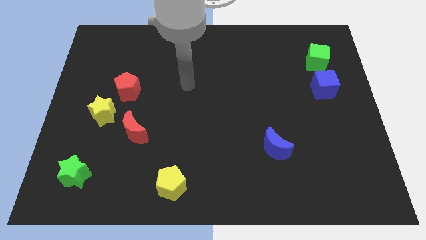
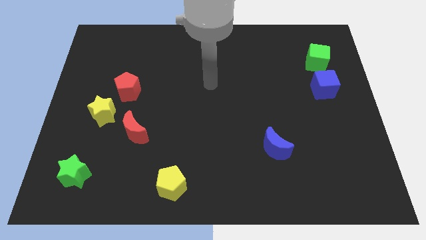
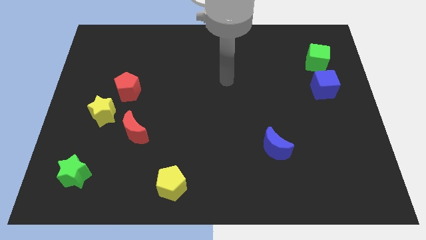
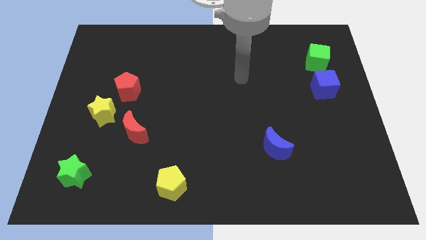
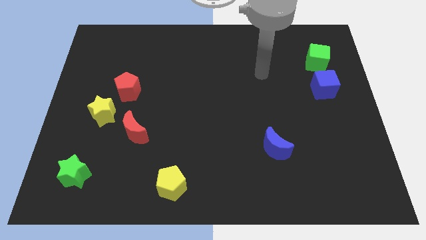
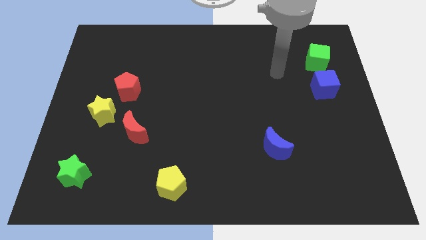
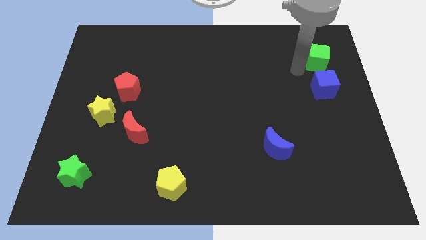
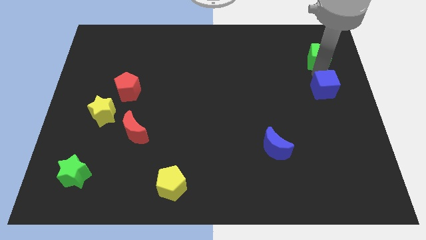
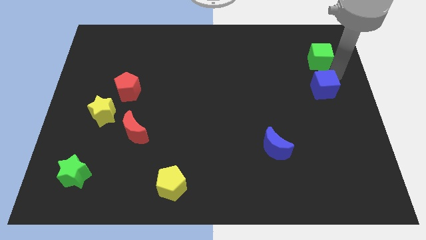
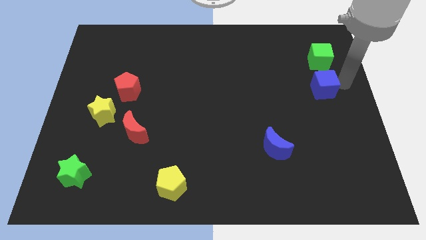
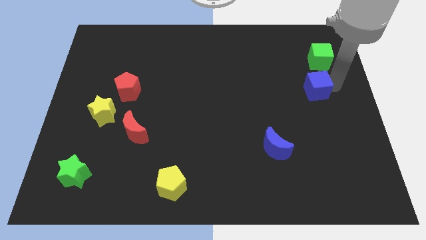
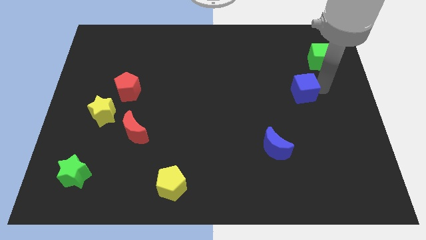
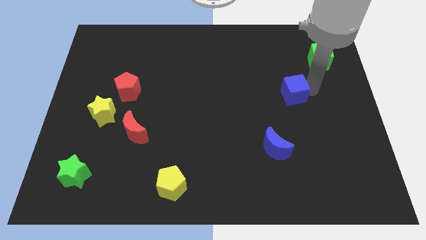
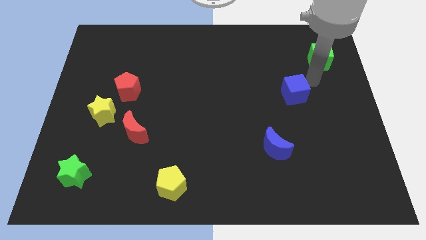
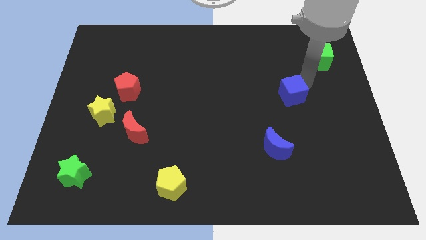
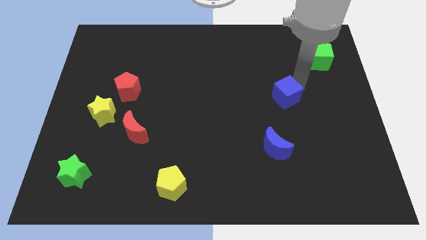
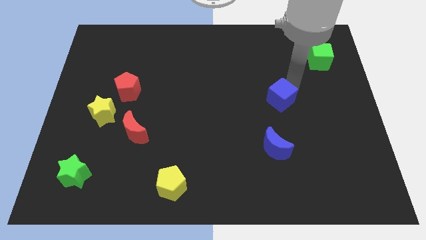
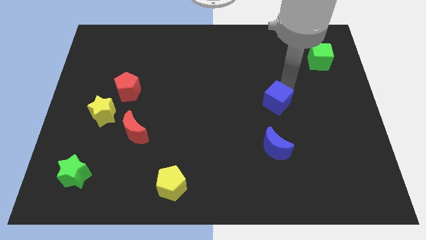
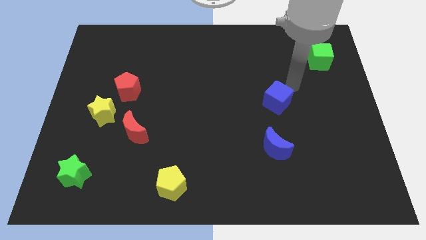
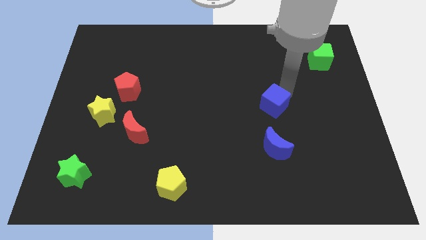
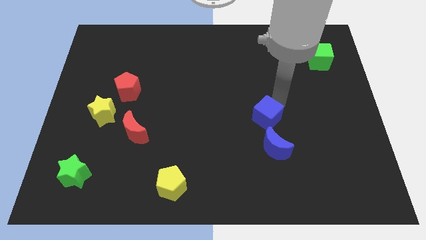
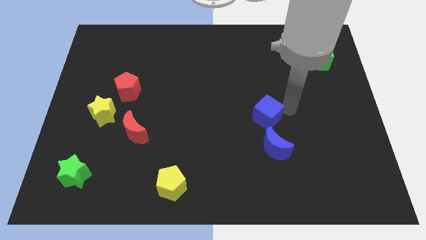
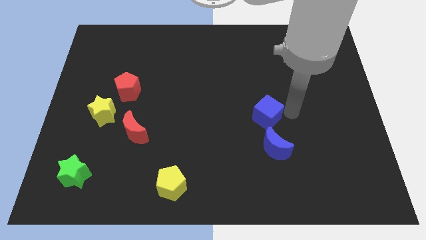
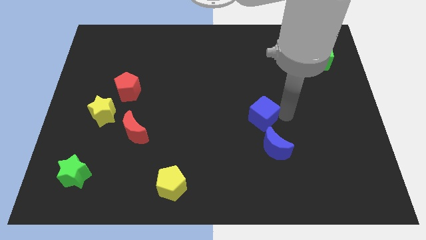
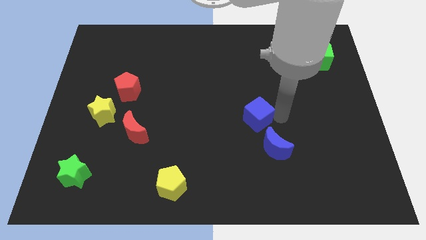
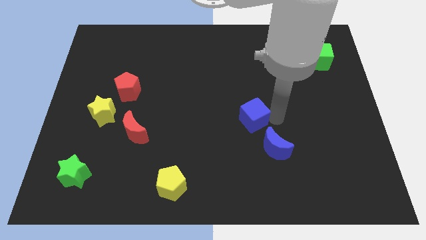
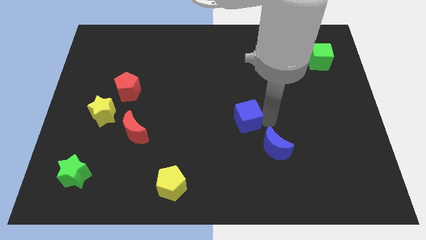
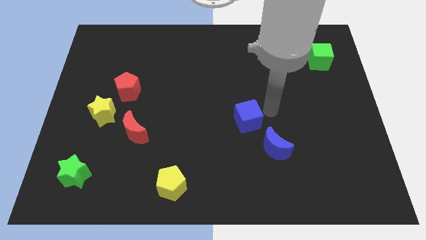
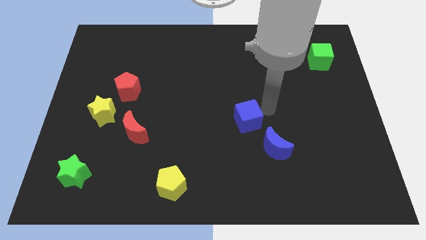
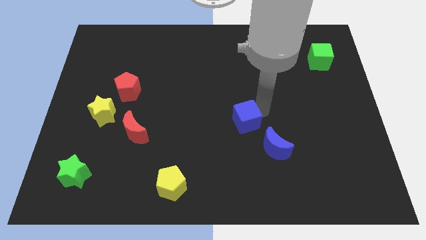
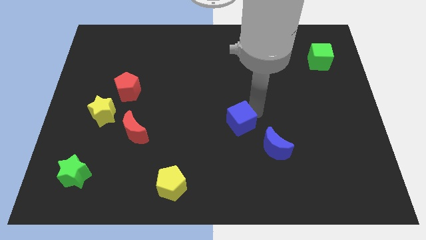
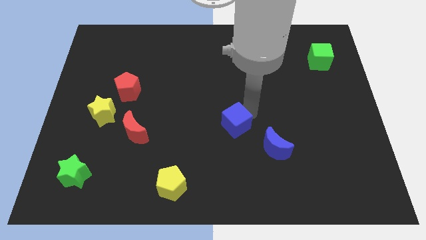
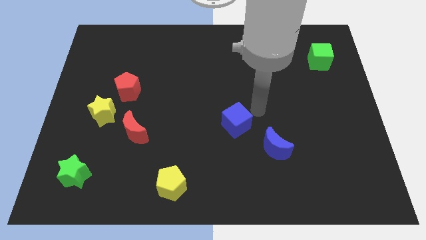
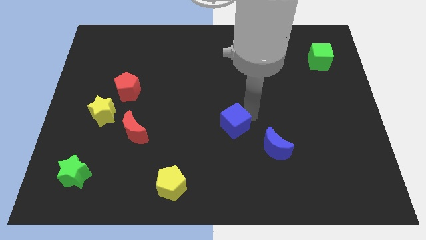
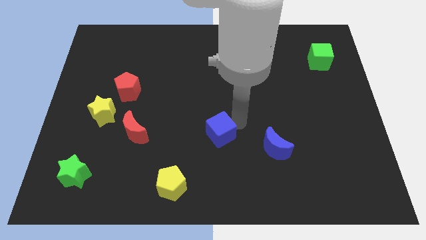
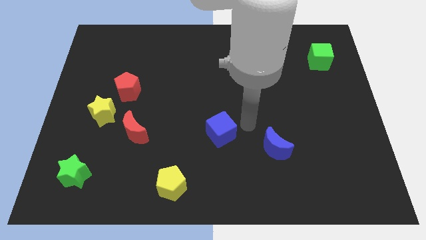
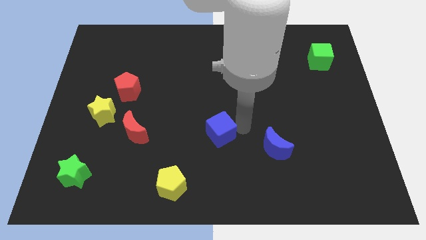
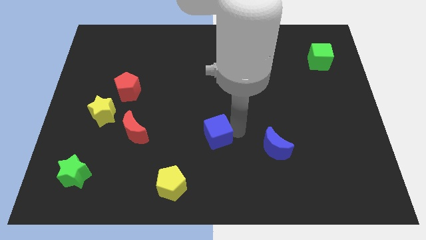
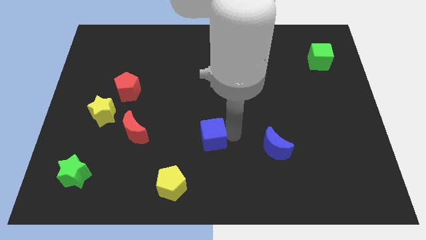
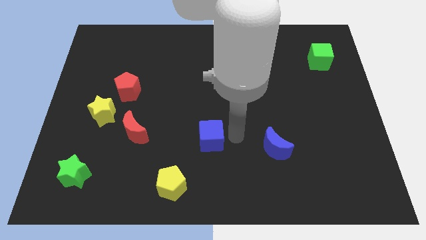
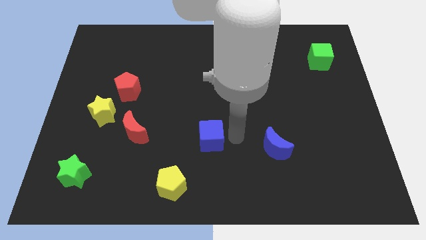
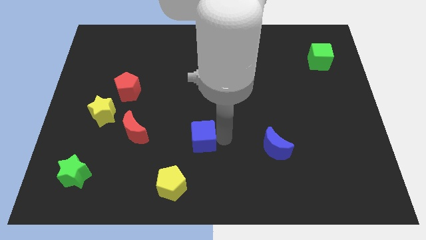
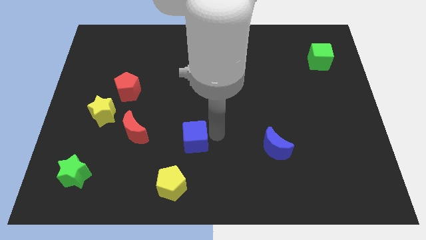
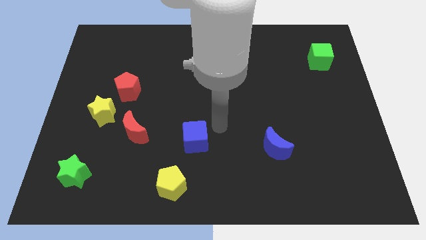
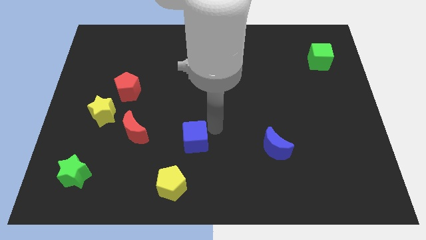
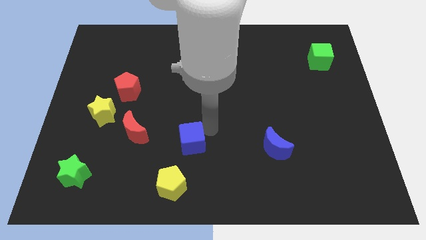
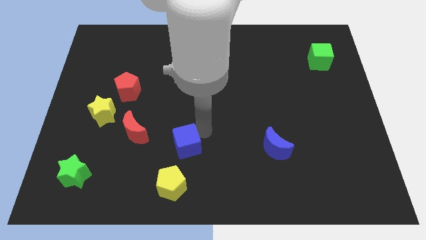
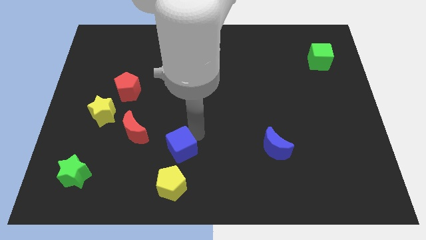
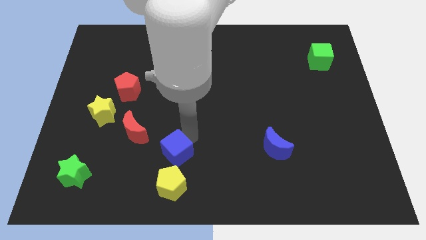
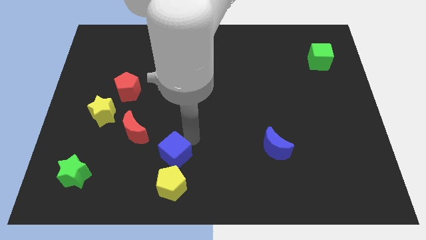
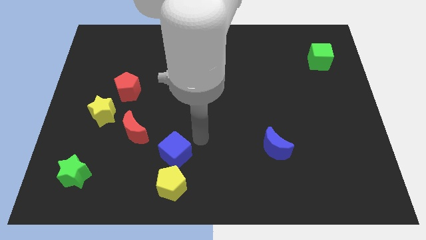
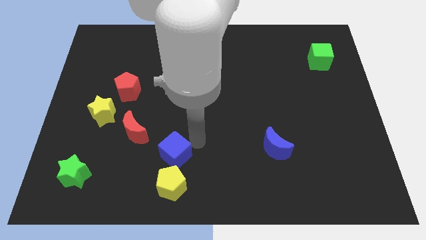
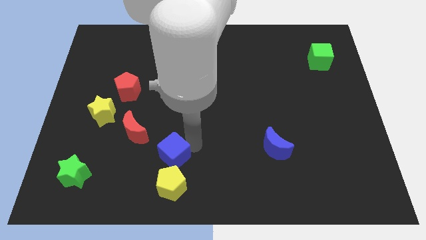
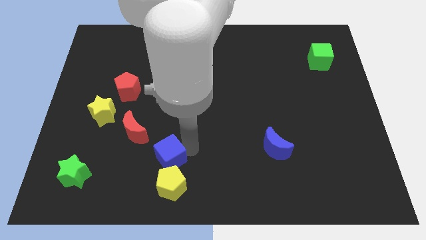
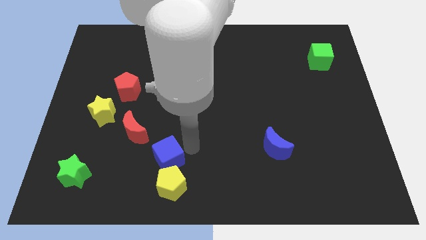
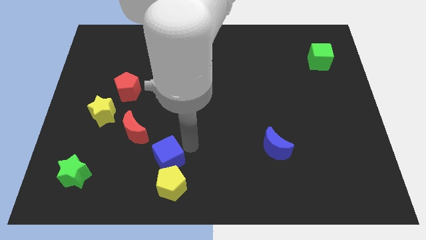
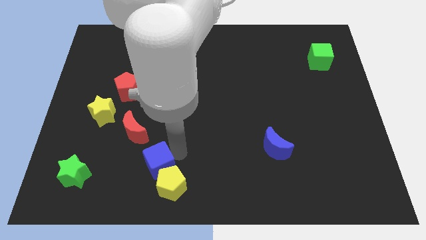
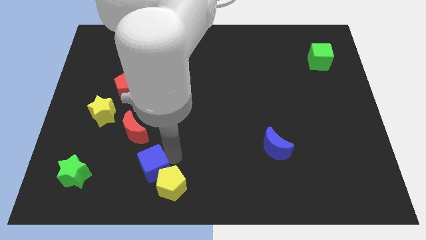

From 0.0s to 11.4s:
move the blue cube just left of the yellow pentagon

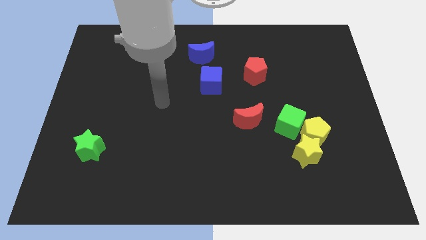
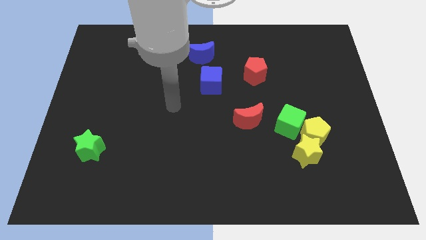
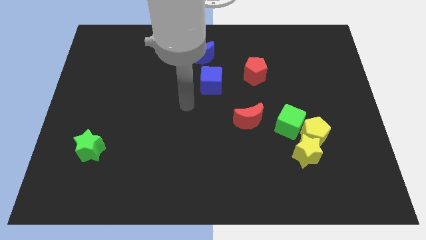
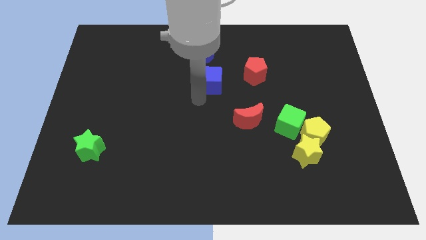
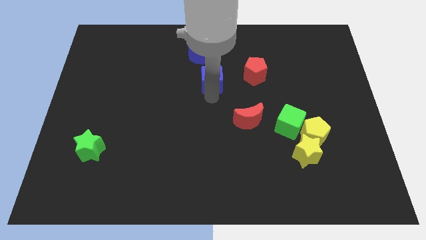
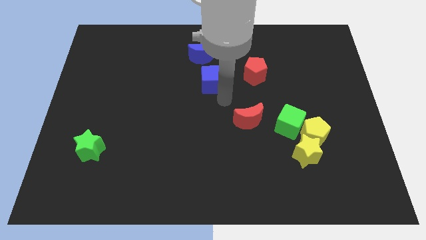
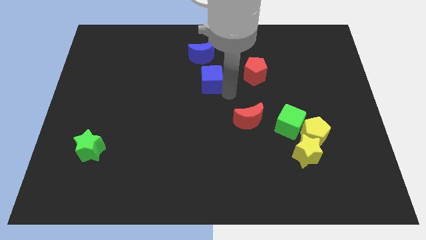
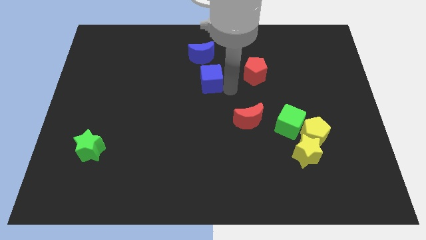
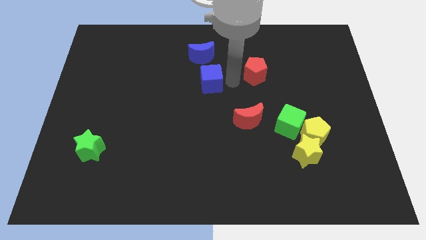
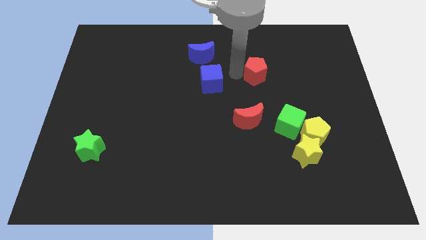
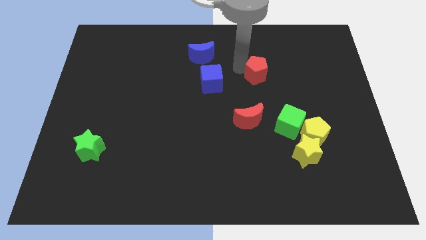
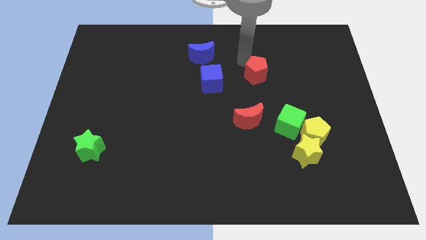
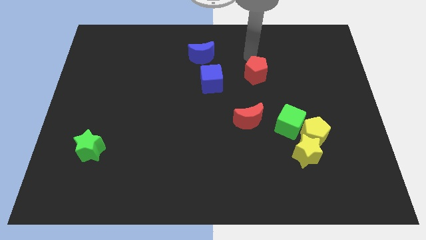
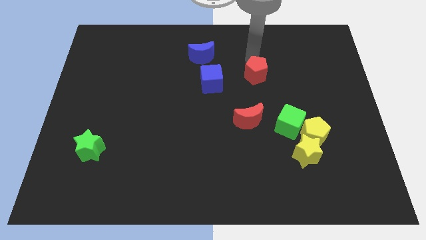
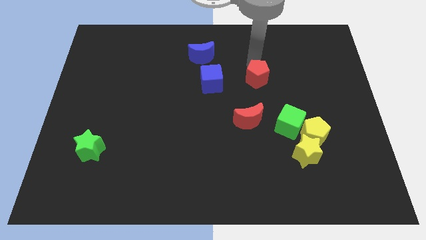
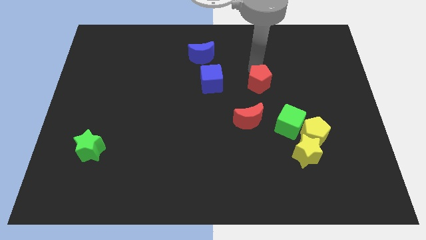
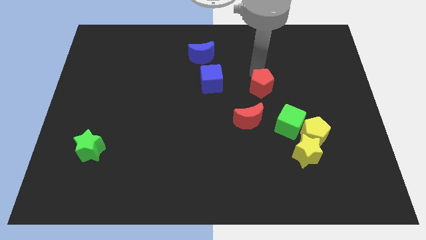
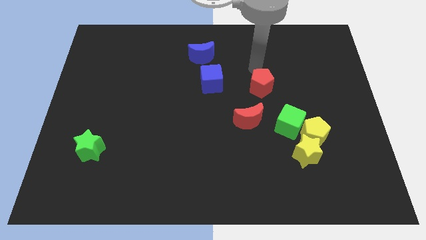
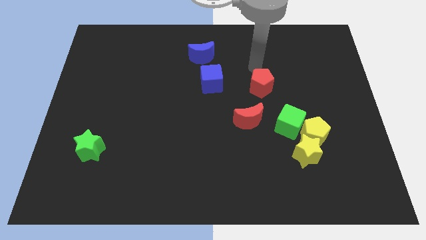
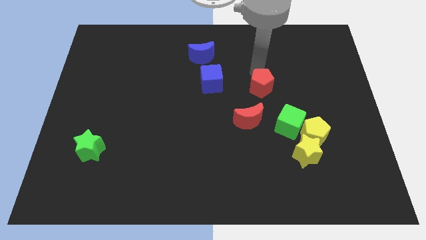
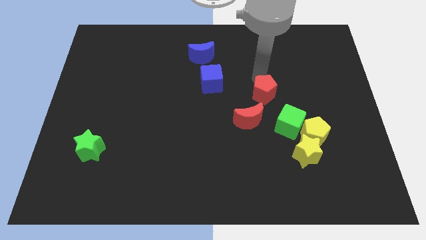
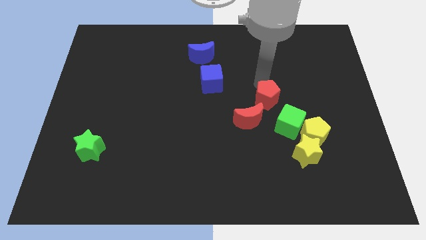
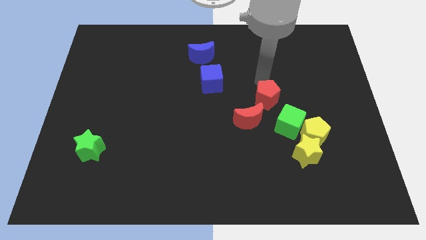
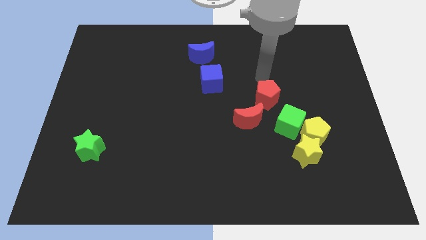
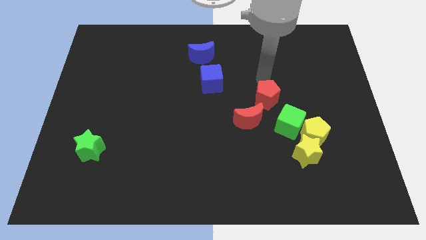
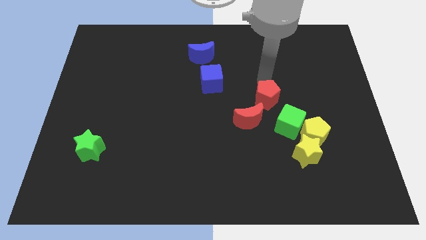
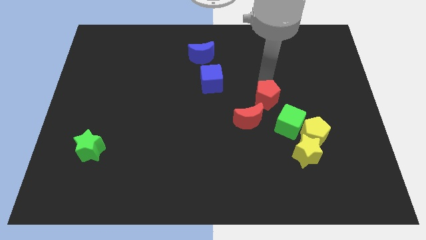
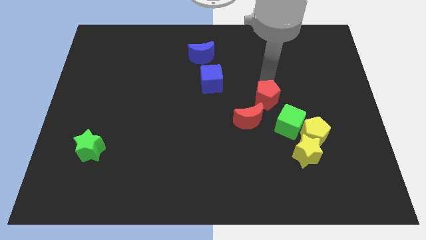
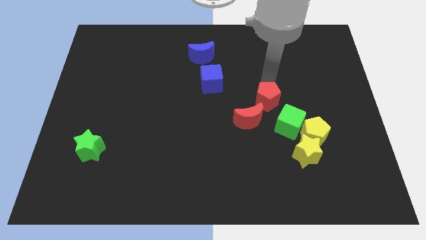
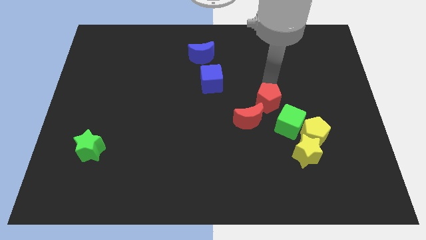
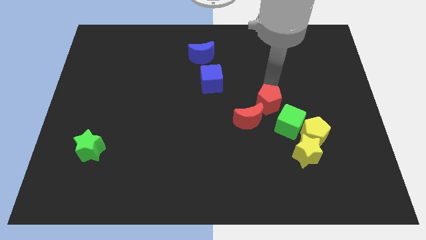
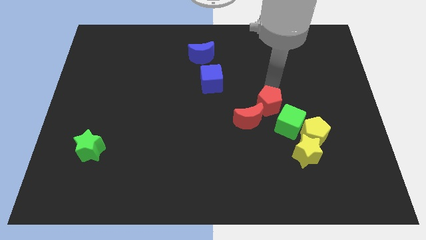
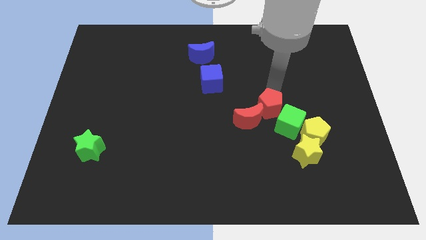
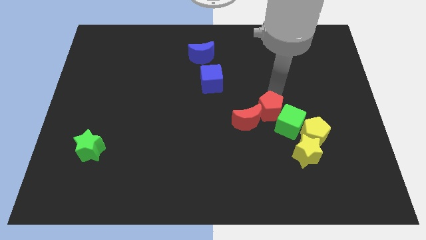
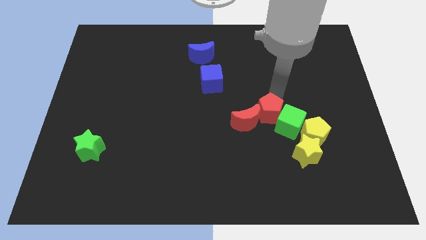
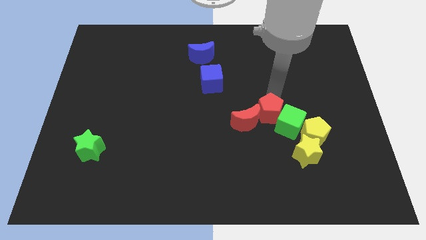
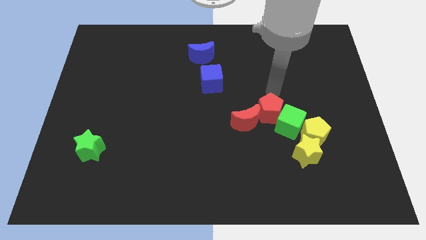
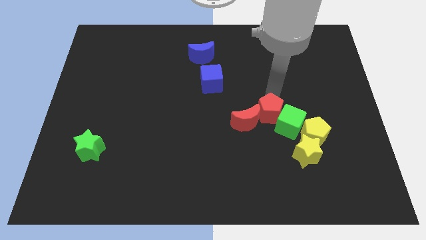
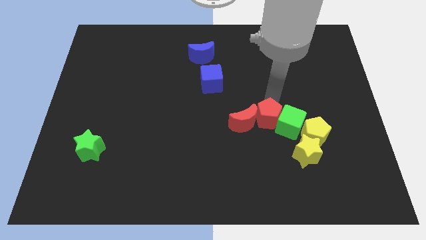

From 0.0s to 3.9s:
put the red pentagon left of the yellow pentagon
